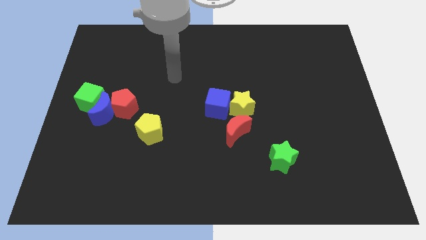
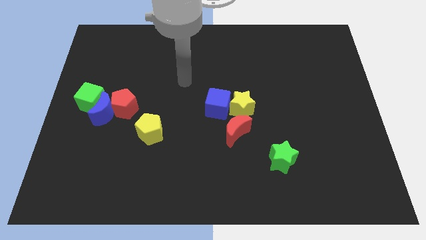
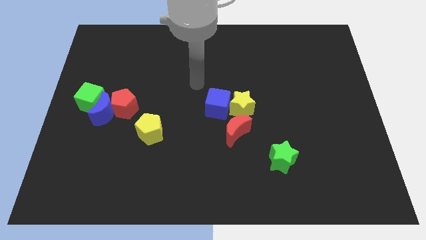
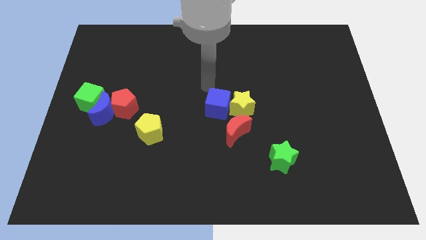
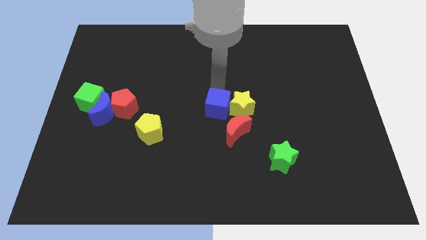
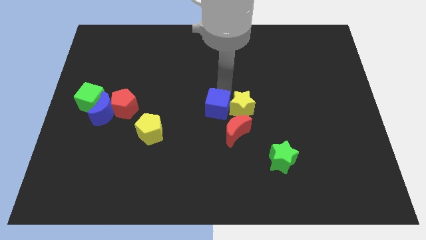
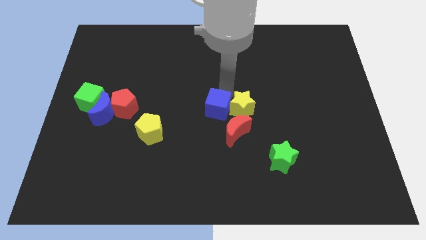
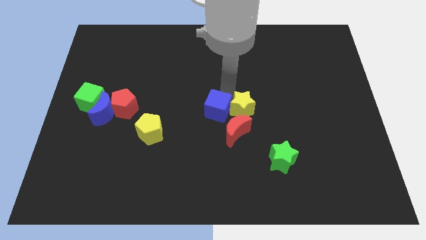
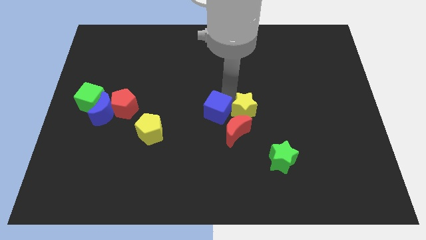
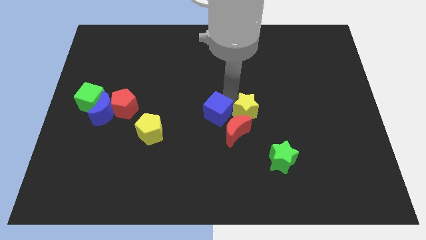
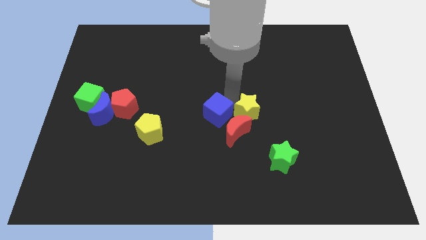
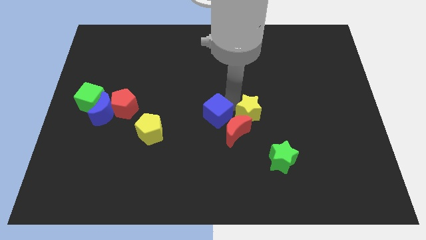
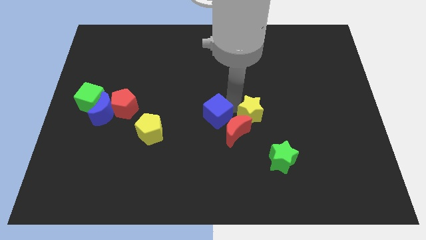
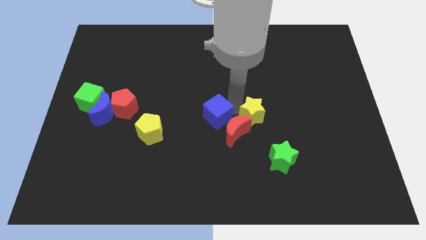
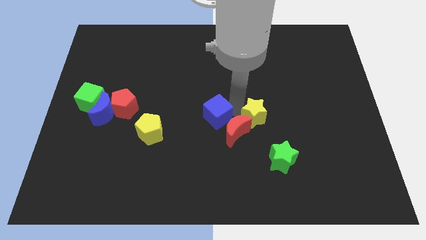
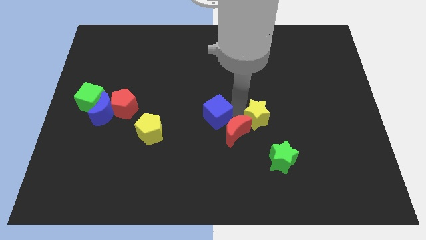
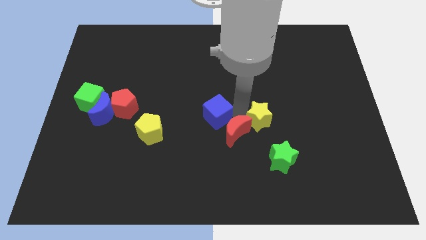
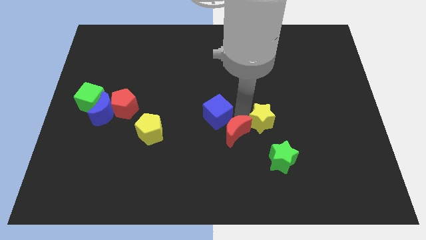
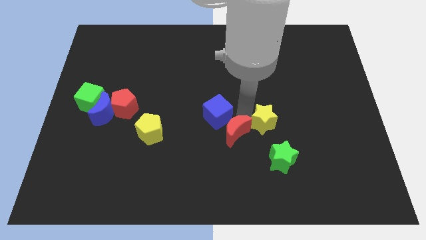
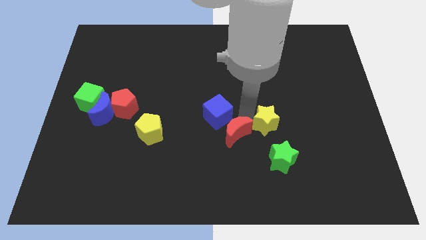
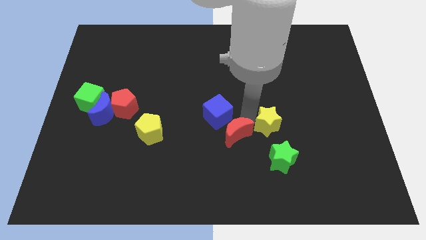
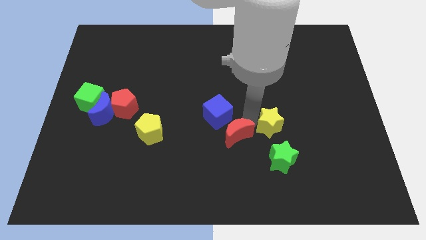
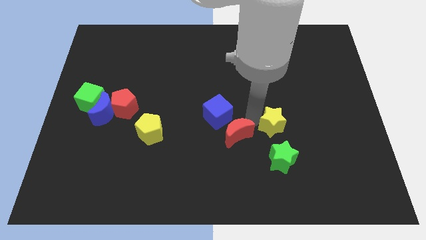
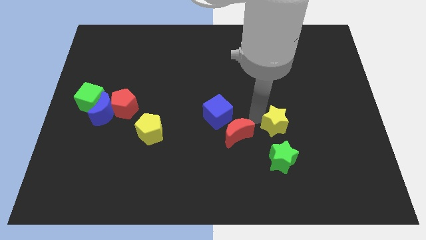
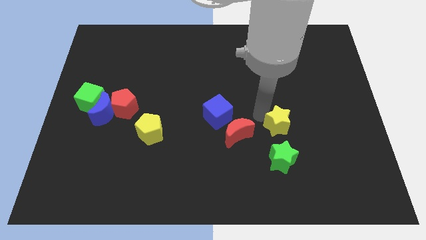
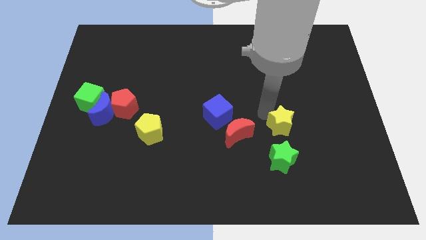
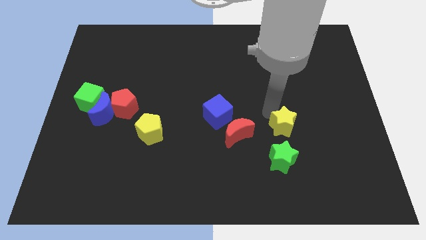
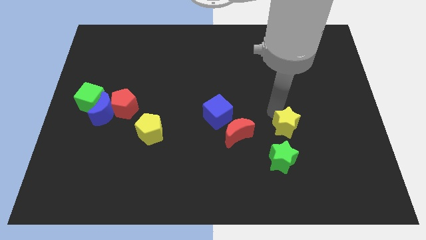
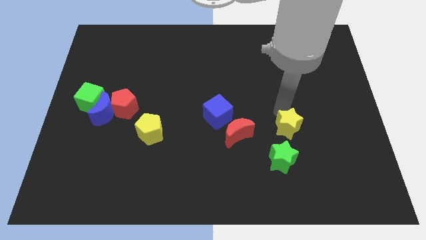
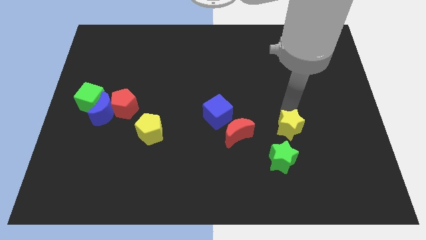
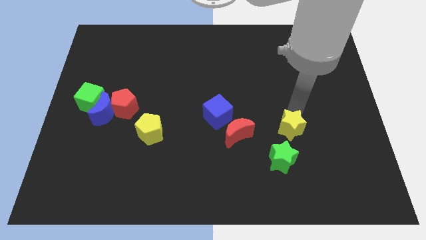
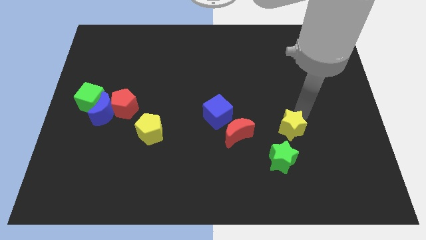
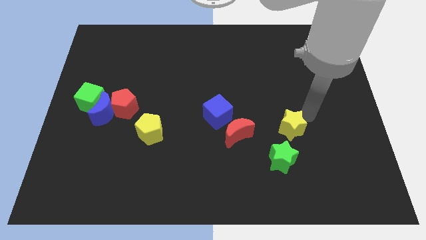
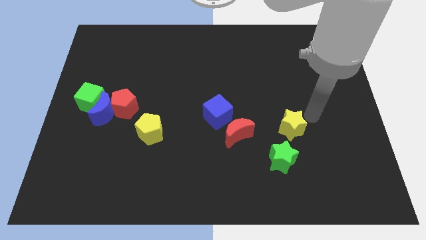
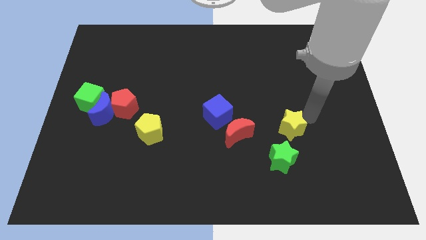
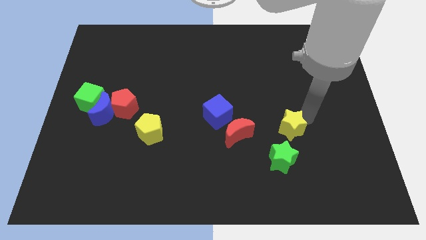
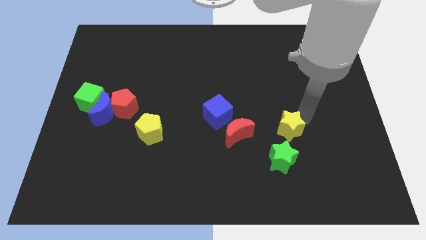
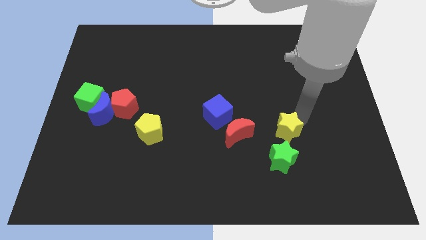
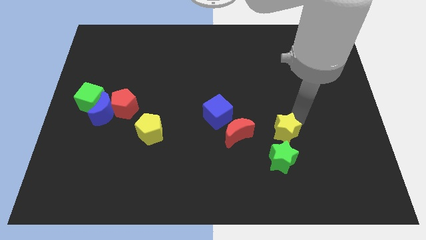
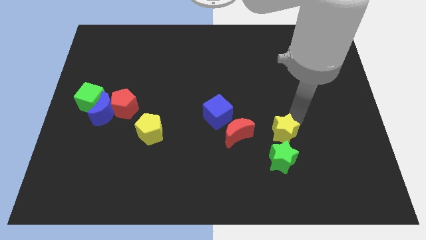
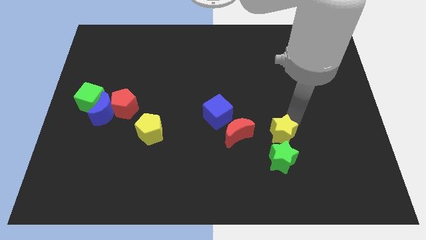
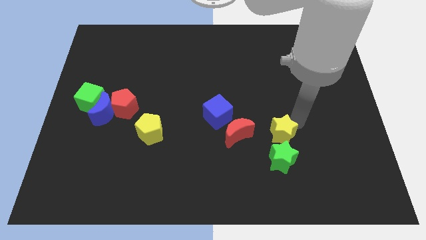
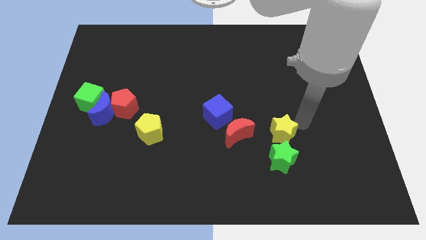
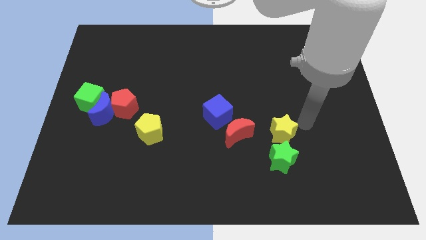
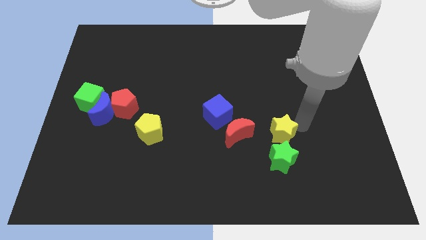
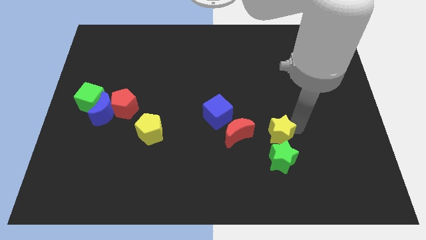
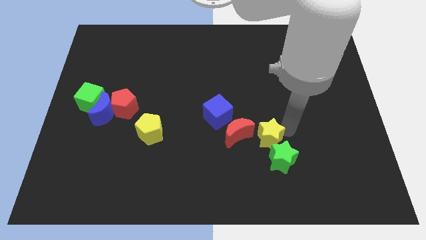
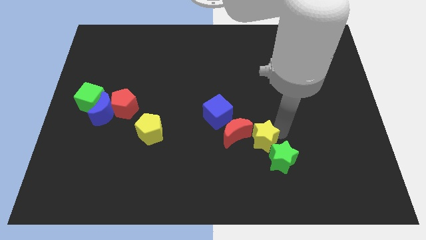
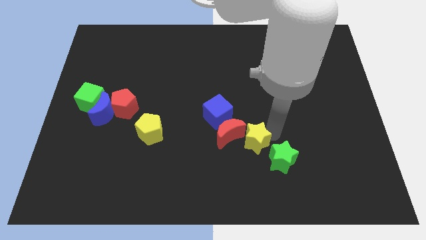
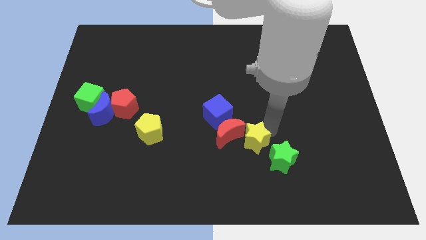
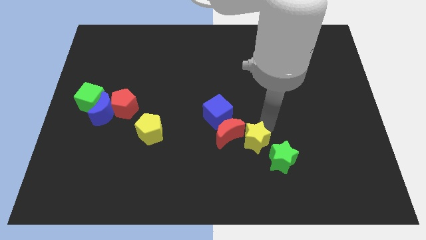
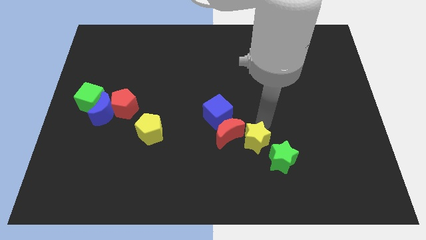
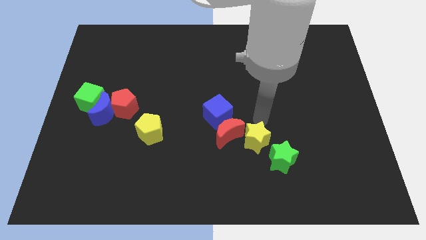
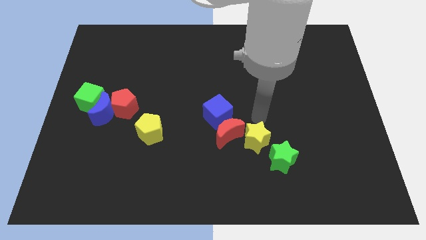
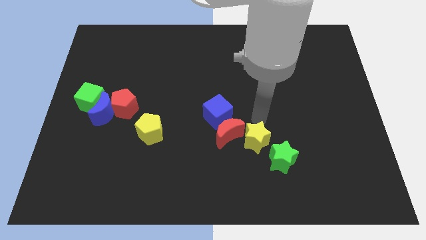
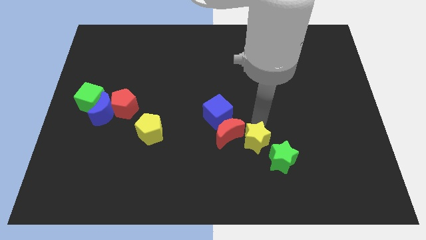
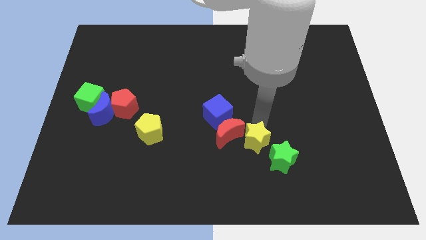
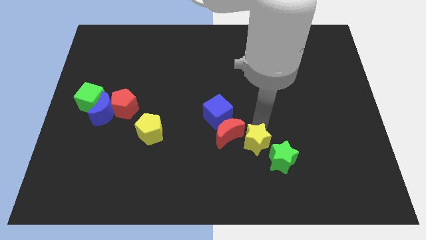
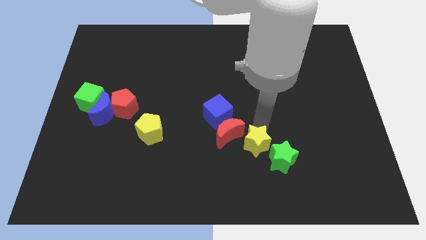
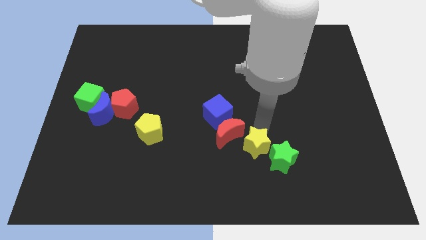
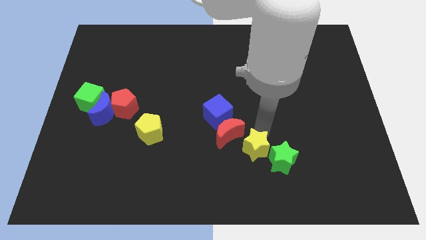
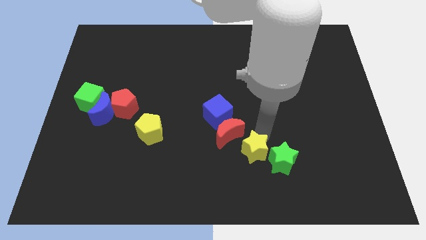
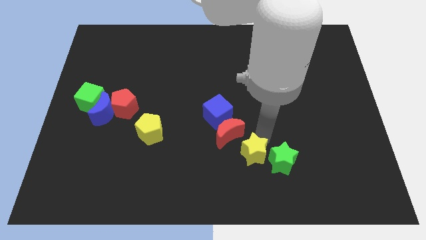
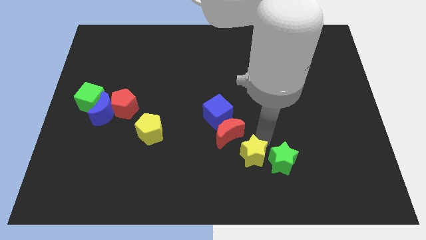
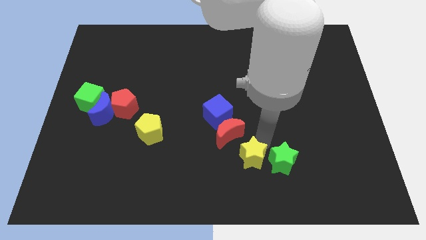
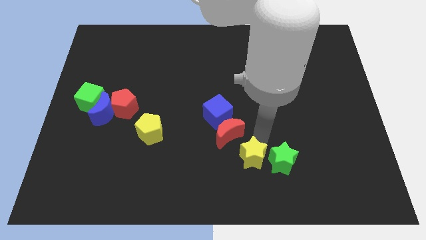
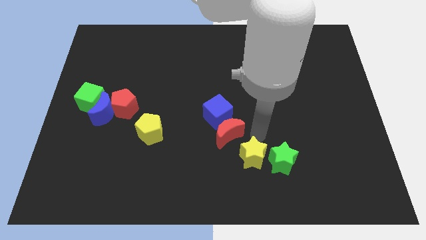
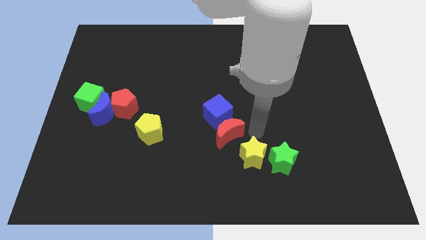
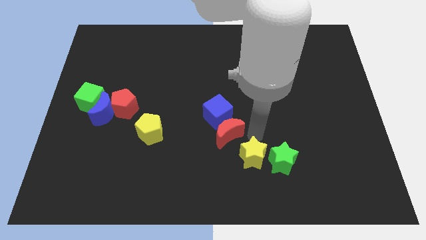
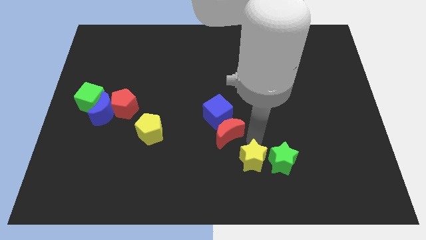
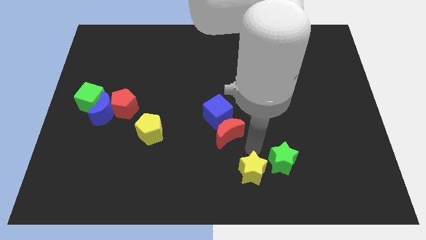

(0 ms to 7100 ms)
push the yellow star to the bottom
